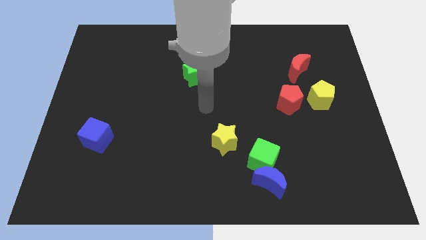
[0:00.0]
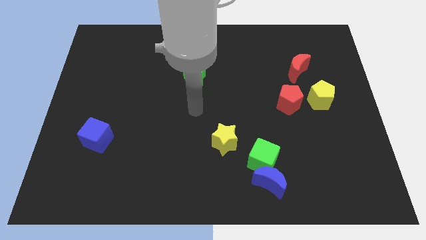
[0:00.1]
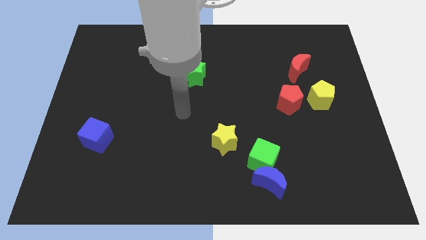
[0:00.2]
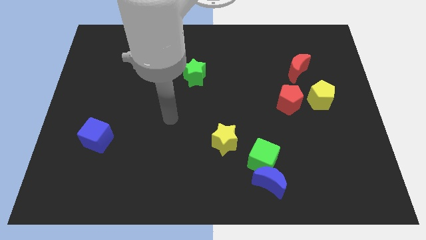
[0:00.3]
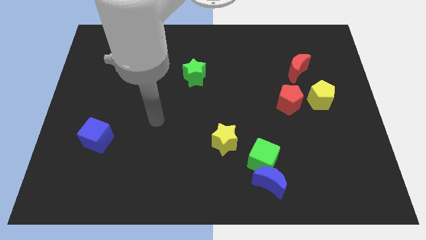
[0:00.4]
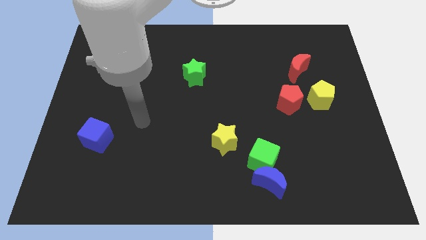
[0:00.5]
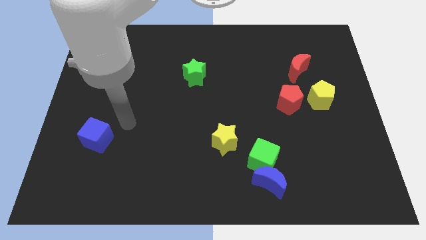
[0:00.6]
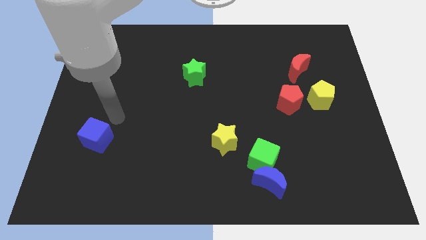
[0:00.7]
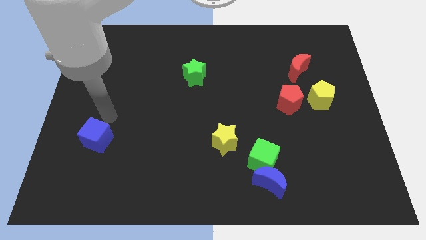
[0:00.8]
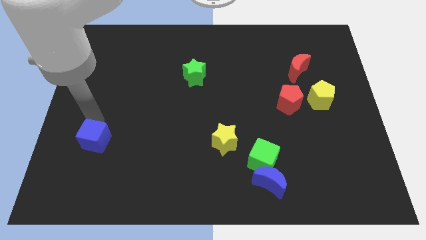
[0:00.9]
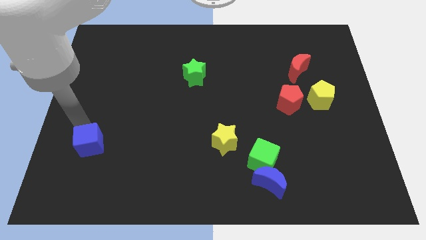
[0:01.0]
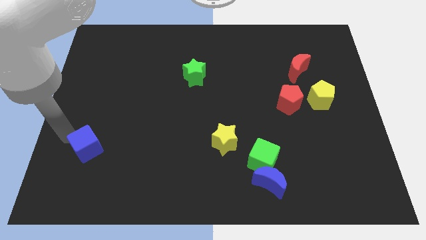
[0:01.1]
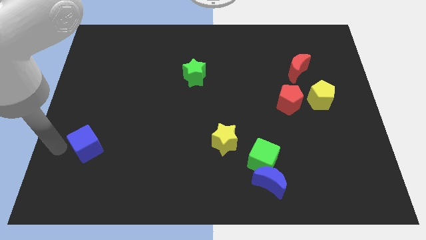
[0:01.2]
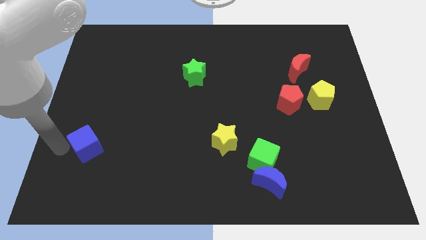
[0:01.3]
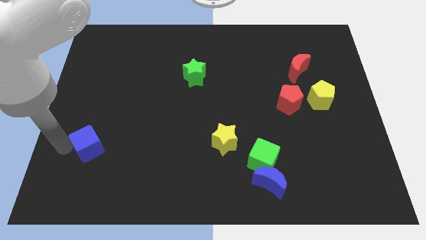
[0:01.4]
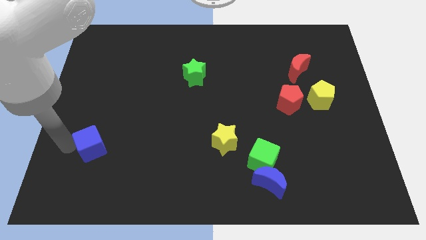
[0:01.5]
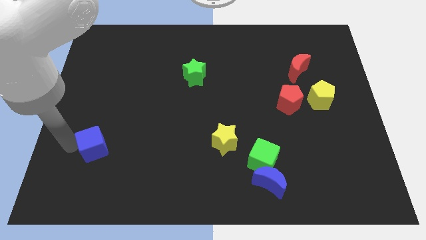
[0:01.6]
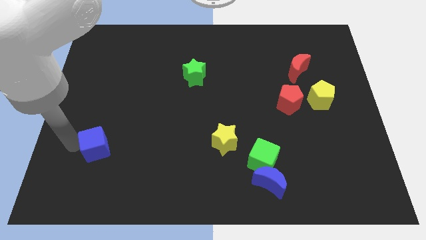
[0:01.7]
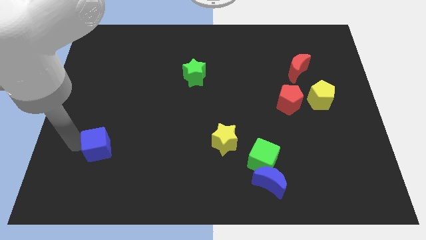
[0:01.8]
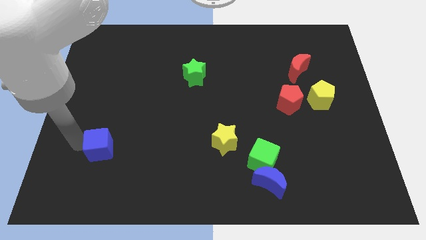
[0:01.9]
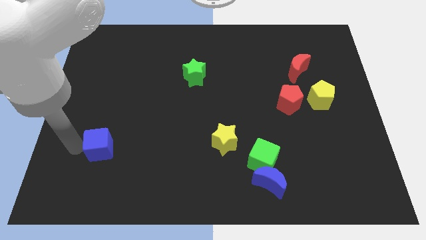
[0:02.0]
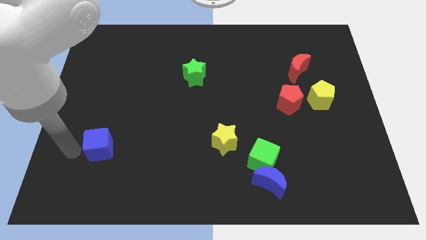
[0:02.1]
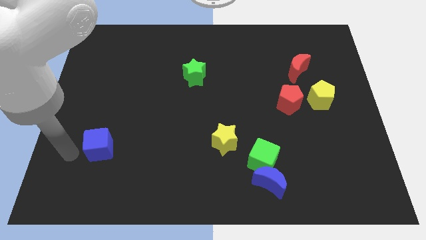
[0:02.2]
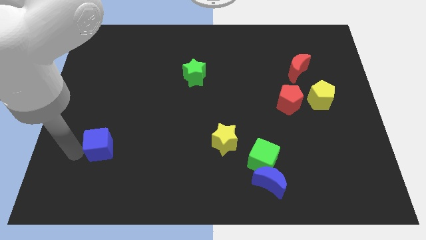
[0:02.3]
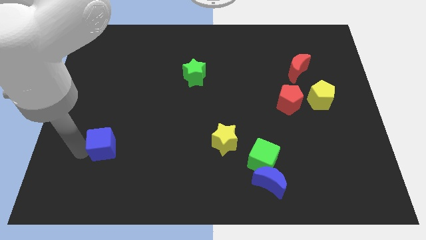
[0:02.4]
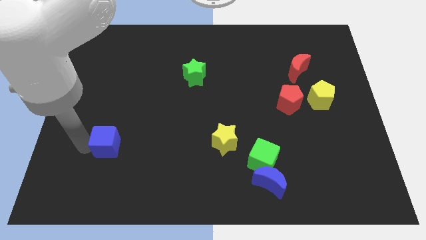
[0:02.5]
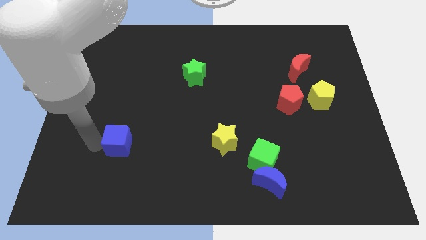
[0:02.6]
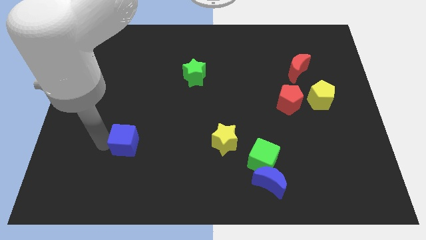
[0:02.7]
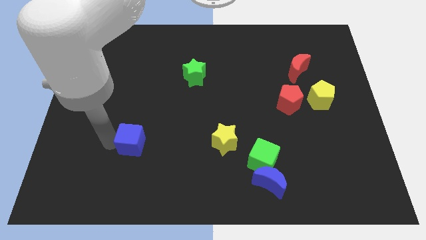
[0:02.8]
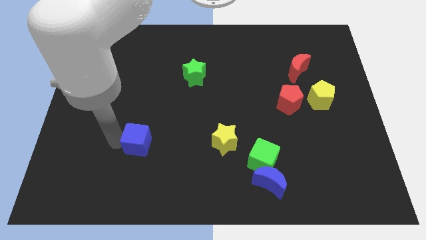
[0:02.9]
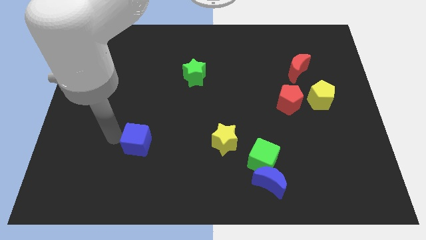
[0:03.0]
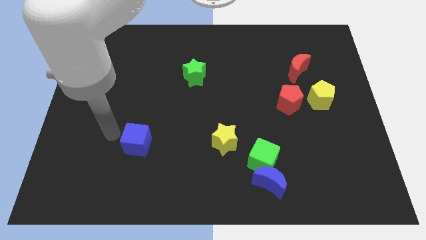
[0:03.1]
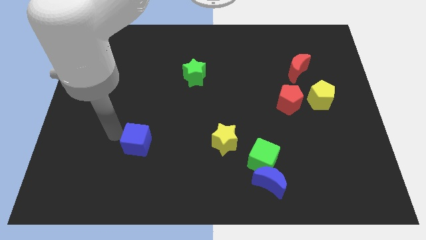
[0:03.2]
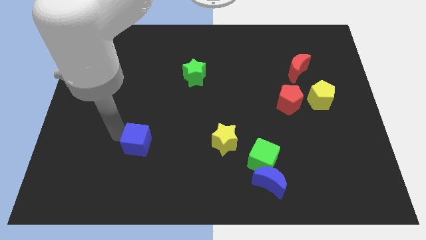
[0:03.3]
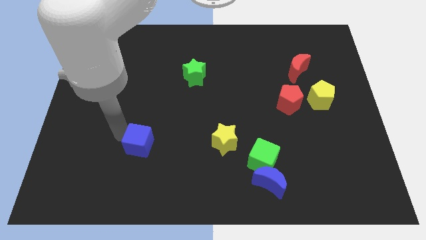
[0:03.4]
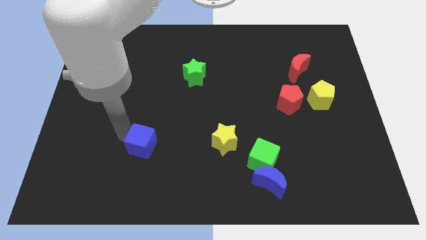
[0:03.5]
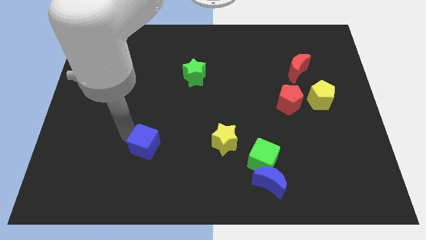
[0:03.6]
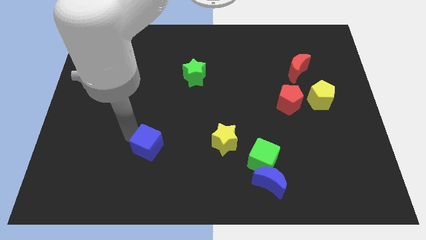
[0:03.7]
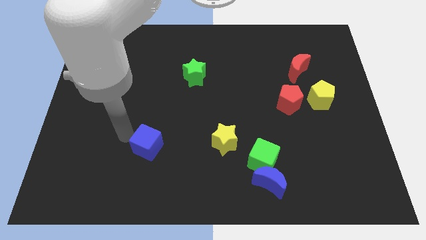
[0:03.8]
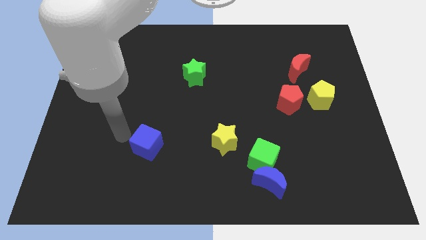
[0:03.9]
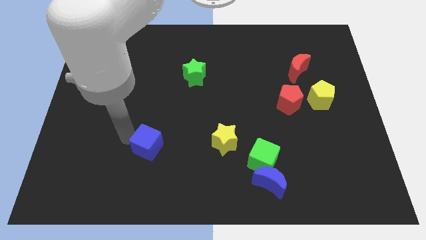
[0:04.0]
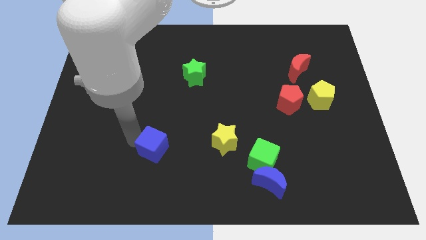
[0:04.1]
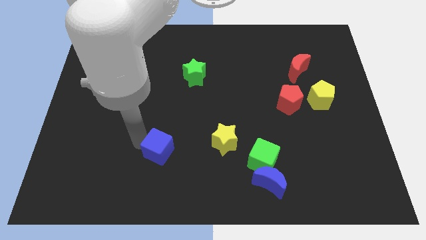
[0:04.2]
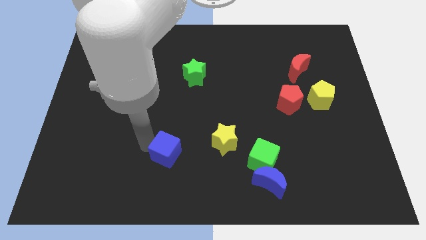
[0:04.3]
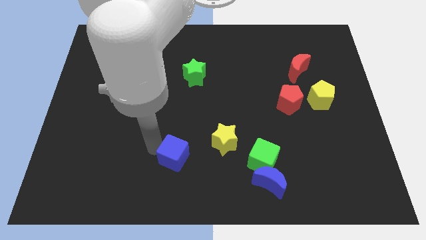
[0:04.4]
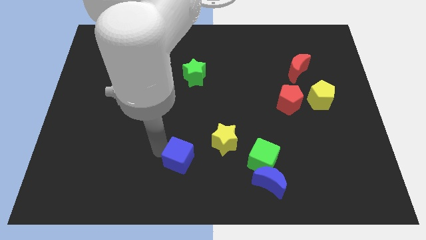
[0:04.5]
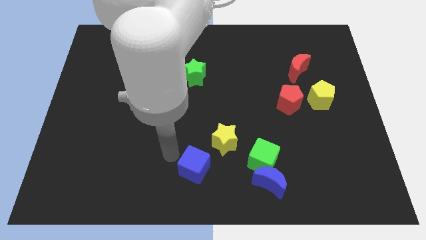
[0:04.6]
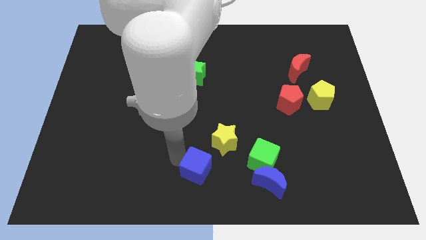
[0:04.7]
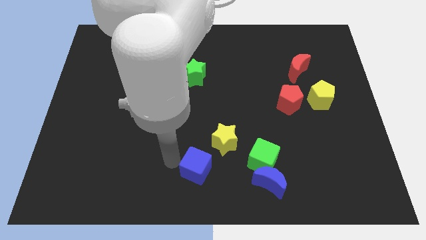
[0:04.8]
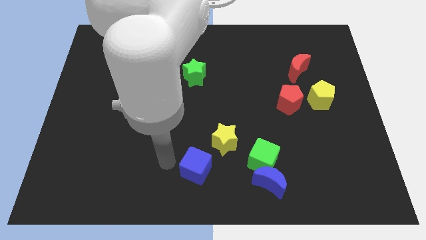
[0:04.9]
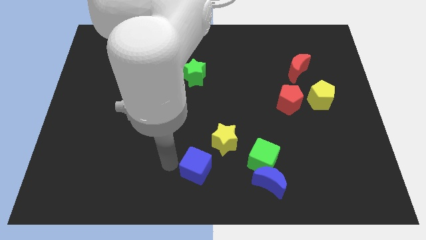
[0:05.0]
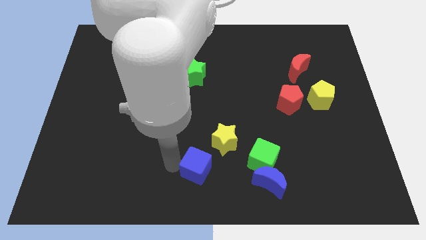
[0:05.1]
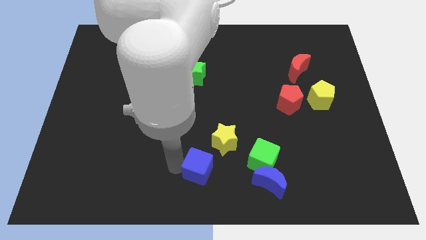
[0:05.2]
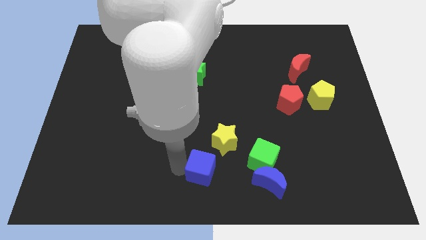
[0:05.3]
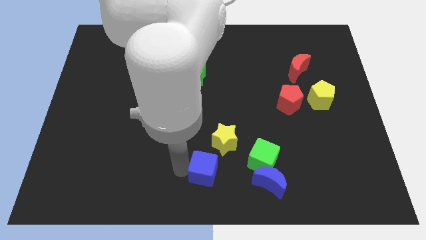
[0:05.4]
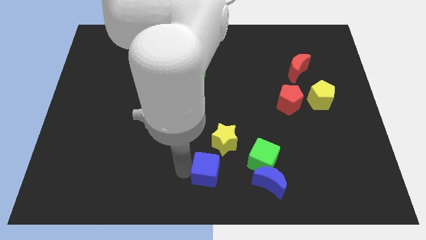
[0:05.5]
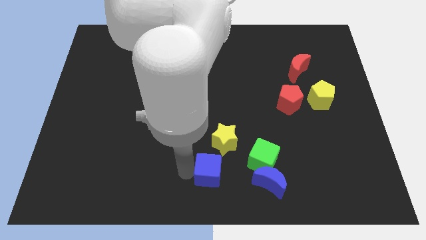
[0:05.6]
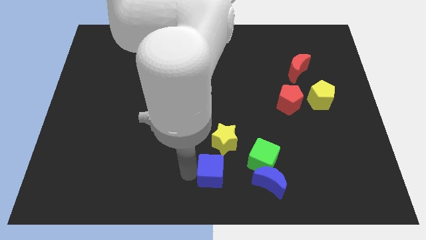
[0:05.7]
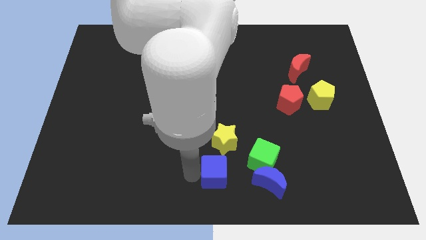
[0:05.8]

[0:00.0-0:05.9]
put the blue cube to the bottom left side of the green cube

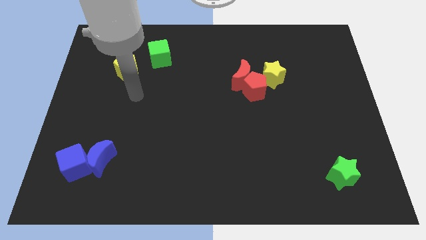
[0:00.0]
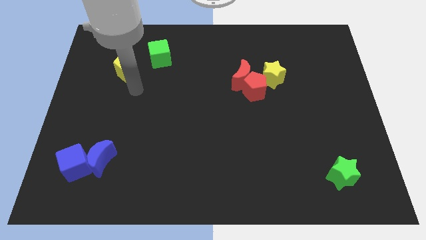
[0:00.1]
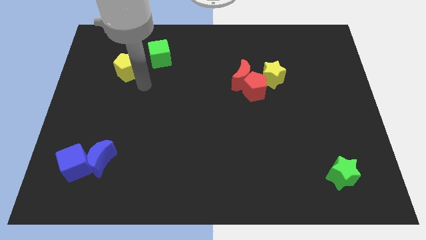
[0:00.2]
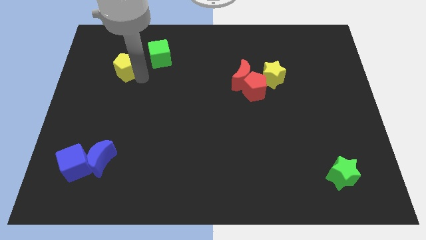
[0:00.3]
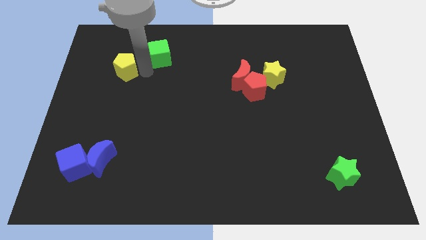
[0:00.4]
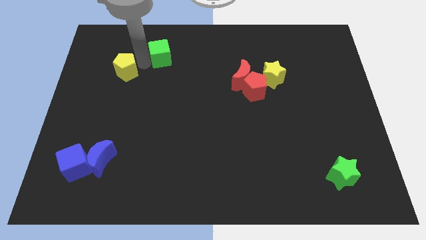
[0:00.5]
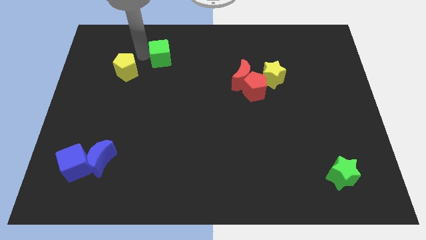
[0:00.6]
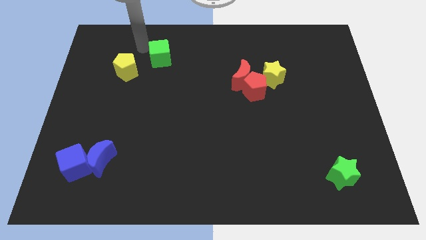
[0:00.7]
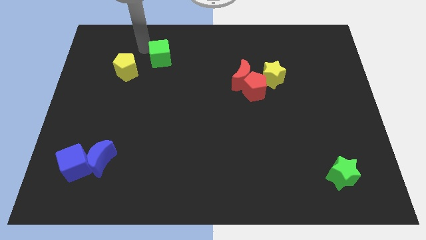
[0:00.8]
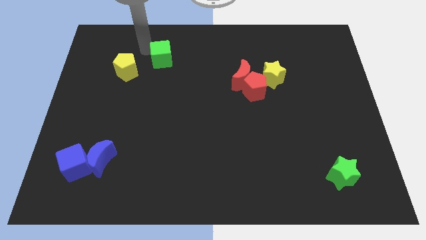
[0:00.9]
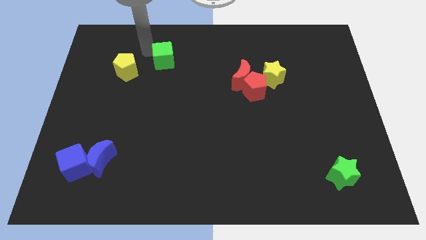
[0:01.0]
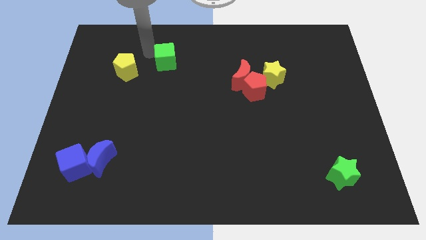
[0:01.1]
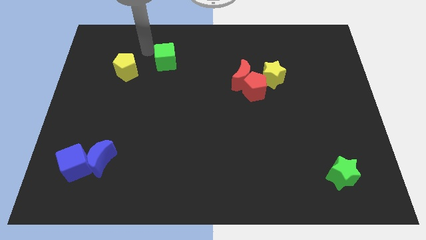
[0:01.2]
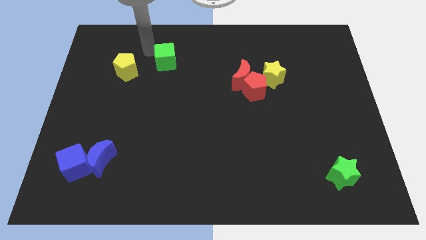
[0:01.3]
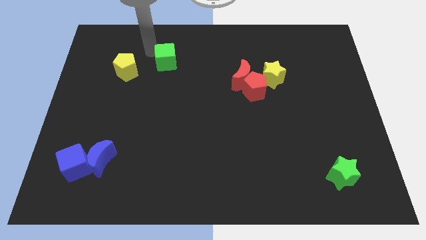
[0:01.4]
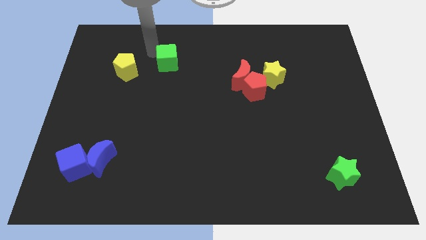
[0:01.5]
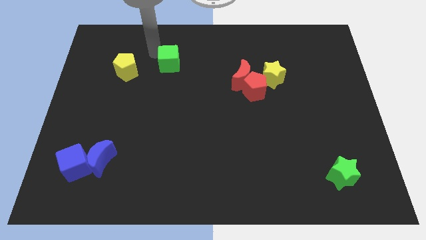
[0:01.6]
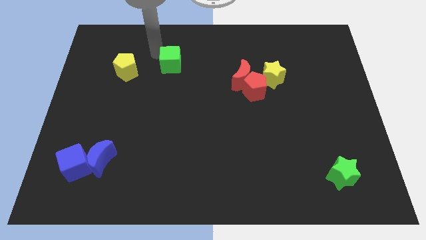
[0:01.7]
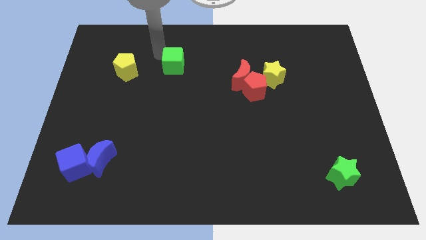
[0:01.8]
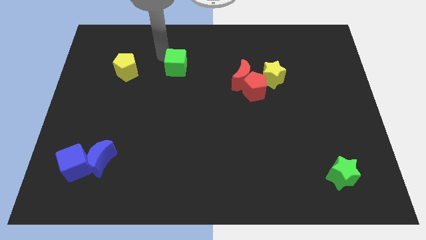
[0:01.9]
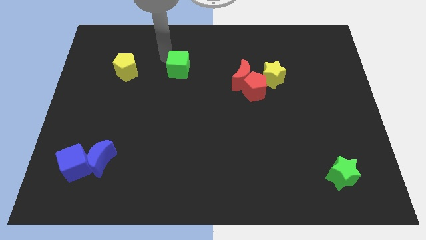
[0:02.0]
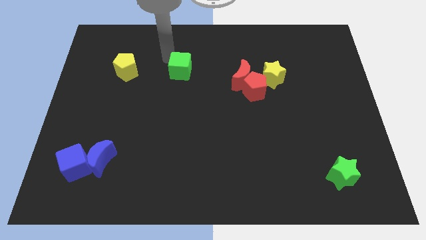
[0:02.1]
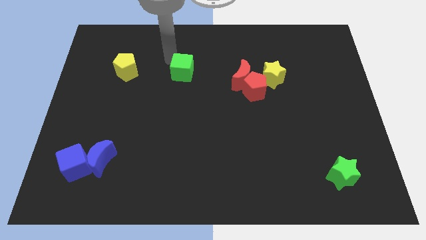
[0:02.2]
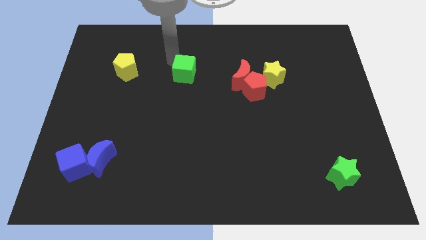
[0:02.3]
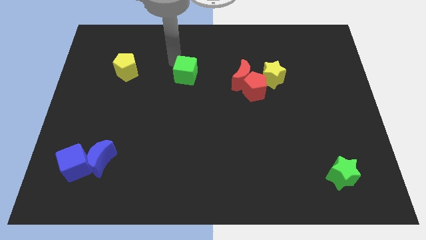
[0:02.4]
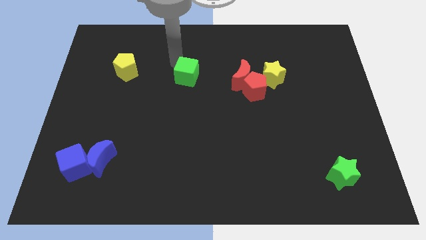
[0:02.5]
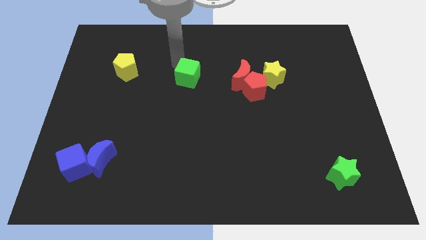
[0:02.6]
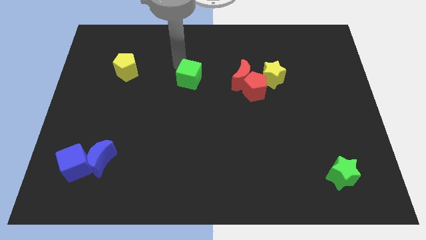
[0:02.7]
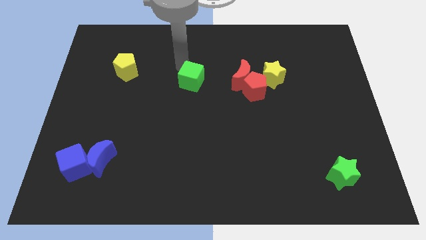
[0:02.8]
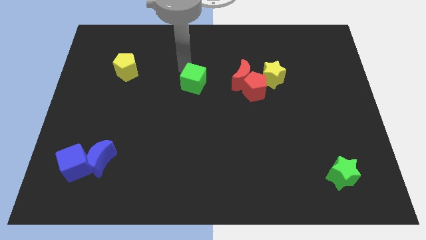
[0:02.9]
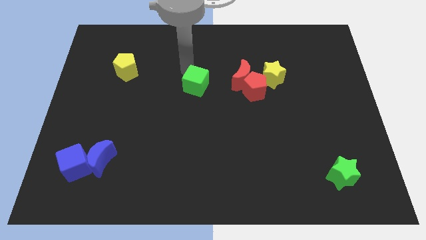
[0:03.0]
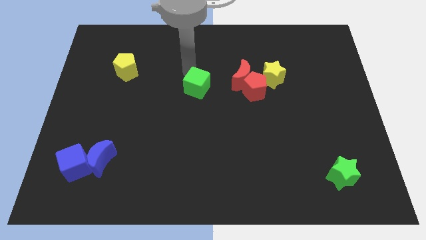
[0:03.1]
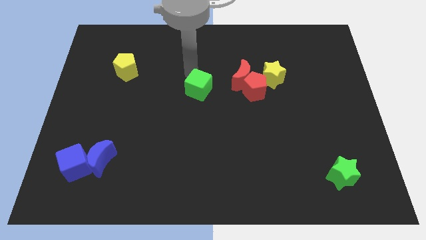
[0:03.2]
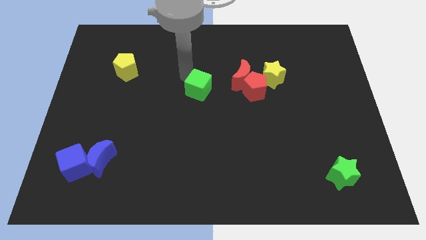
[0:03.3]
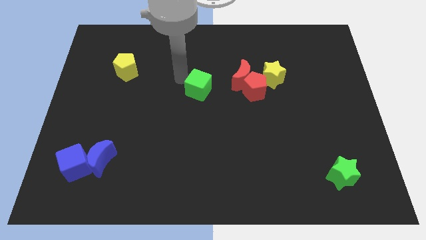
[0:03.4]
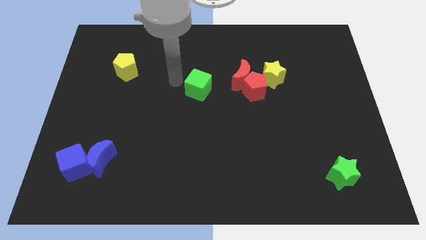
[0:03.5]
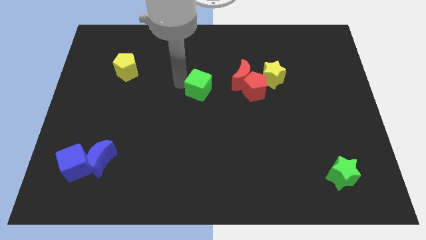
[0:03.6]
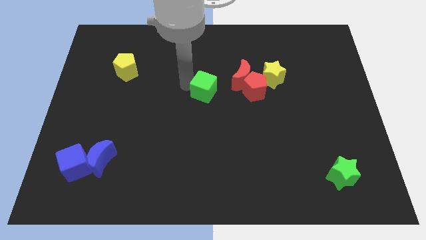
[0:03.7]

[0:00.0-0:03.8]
push the green cube to the bottom left side of the red moon
